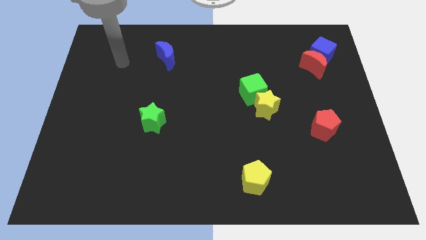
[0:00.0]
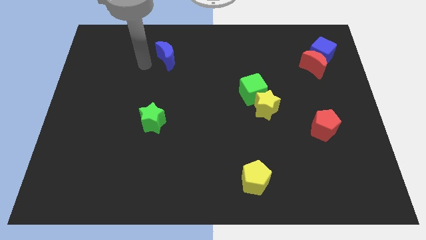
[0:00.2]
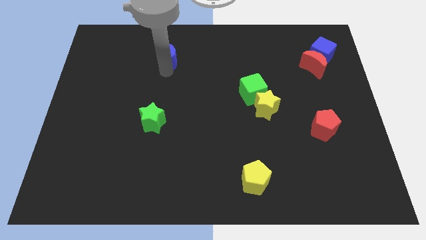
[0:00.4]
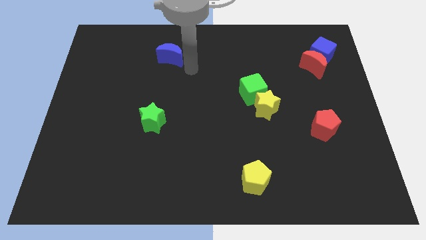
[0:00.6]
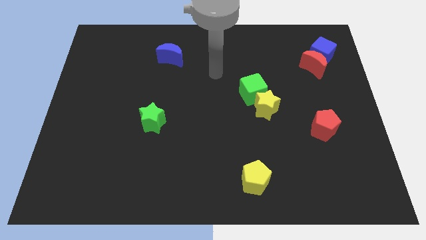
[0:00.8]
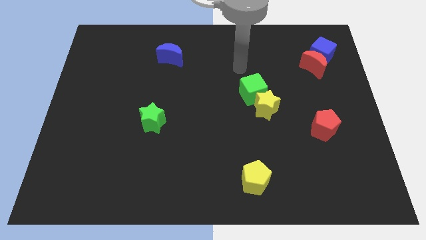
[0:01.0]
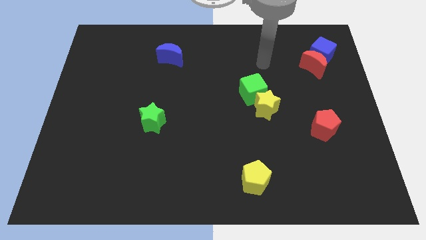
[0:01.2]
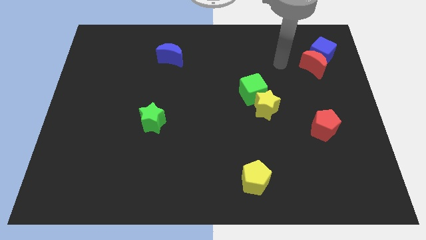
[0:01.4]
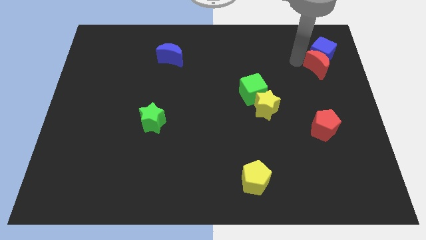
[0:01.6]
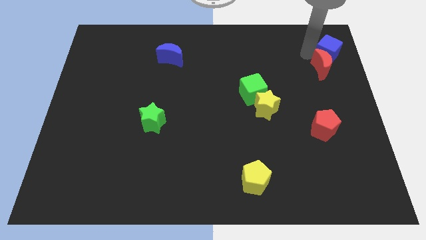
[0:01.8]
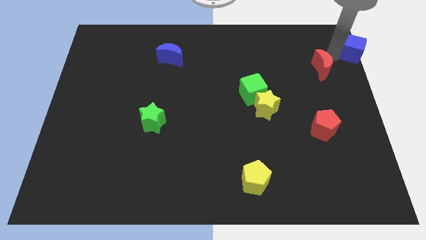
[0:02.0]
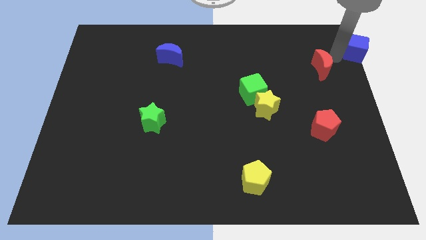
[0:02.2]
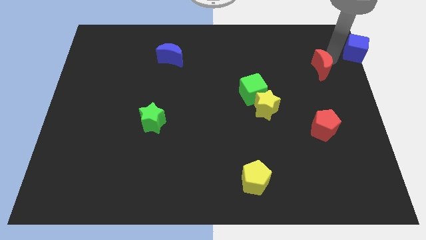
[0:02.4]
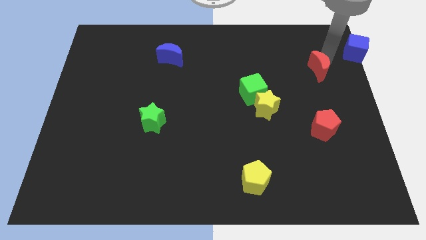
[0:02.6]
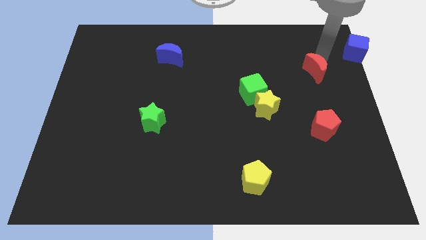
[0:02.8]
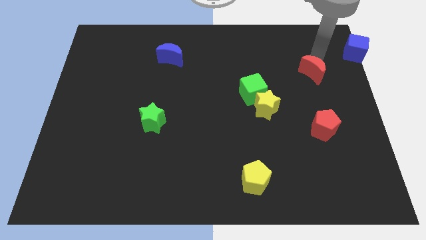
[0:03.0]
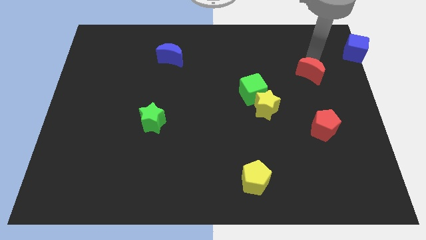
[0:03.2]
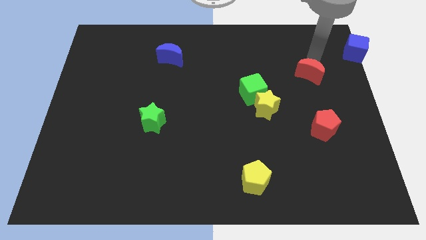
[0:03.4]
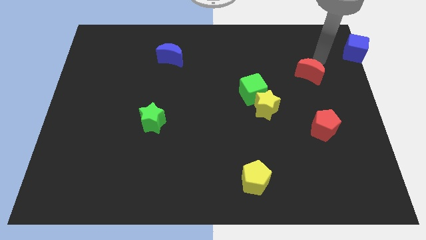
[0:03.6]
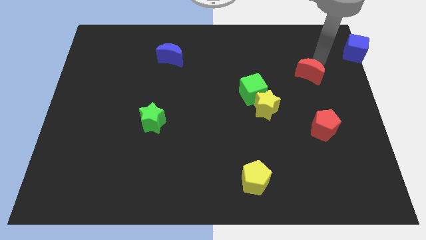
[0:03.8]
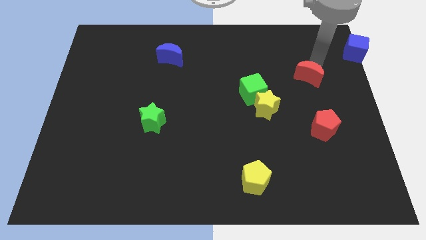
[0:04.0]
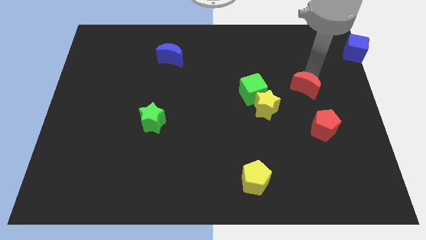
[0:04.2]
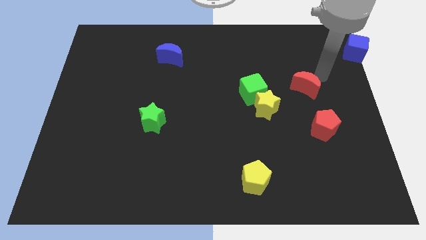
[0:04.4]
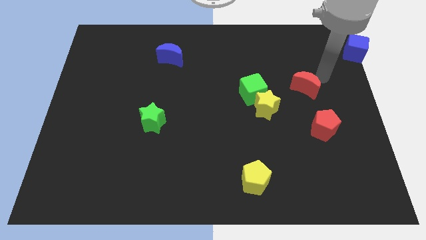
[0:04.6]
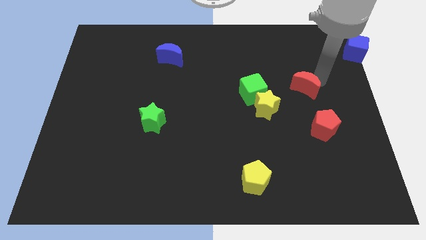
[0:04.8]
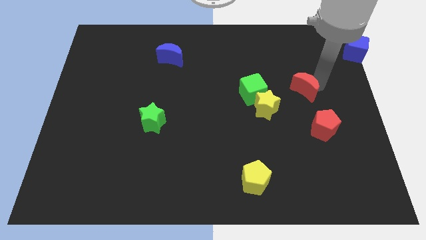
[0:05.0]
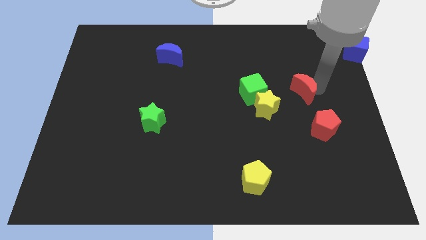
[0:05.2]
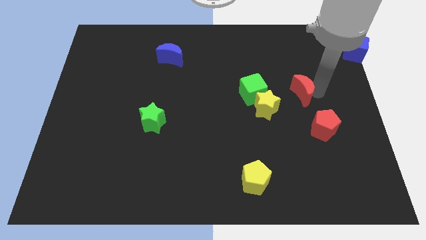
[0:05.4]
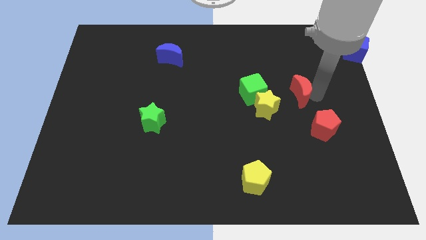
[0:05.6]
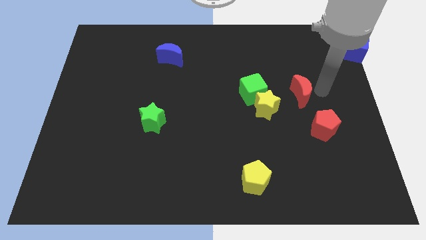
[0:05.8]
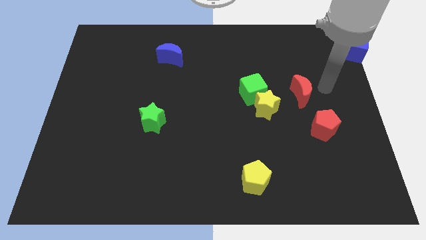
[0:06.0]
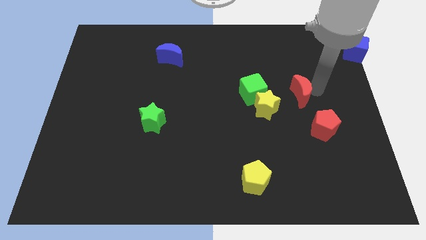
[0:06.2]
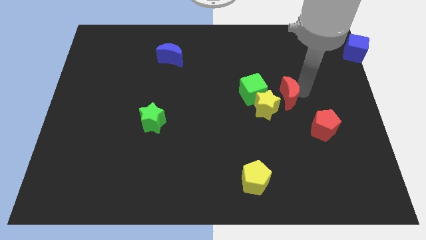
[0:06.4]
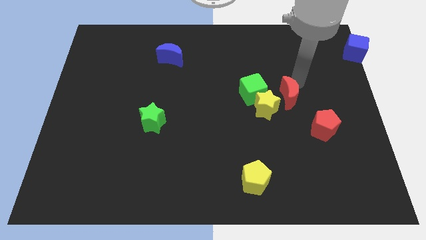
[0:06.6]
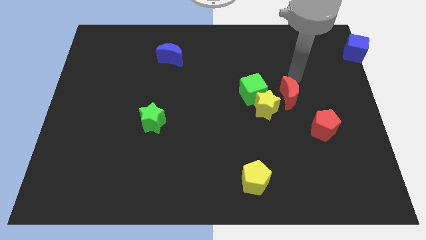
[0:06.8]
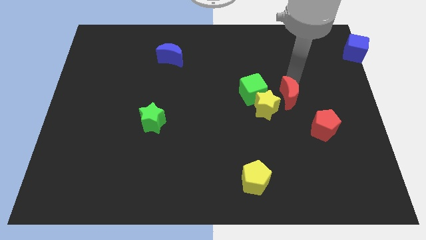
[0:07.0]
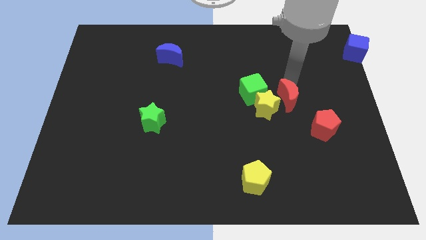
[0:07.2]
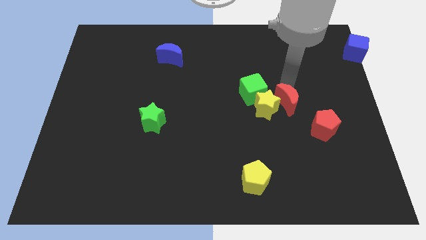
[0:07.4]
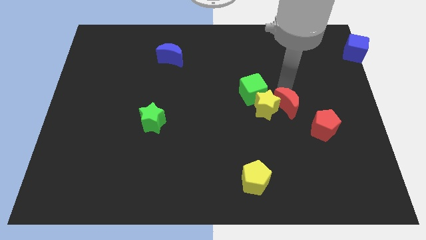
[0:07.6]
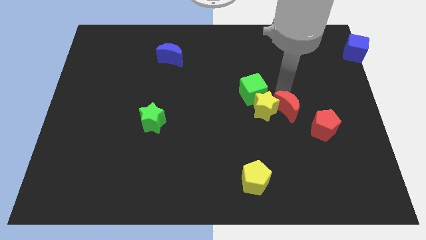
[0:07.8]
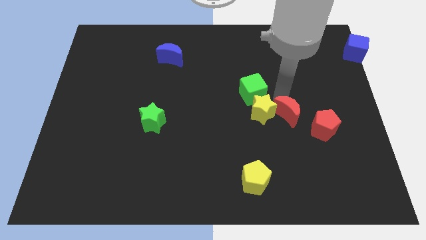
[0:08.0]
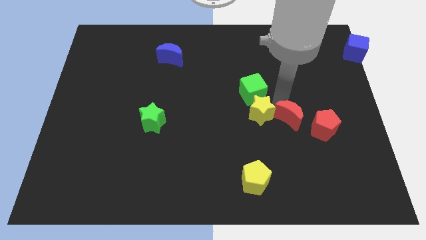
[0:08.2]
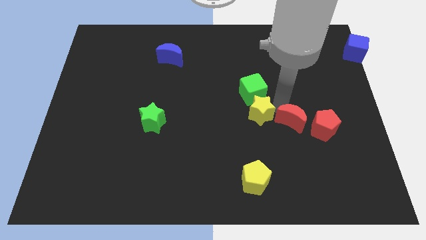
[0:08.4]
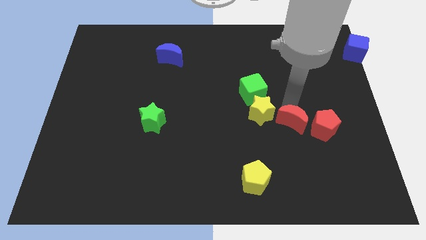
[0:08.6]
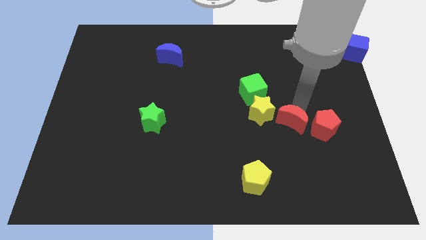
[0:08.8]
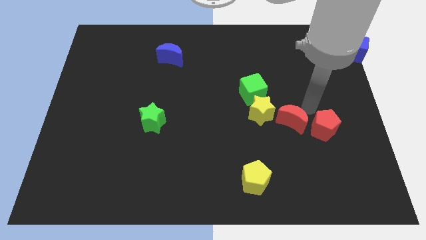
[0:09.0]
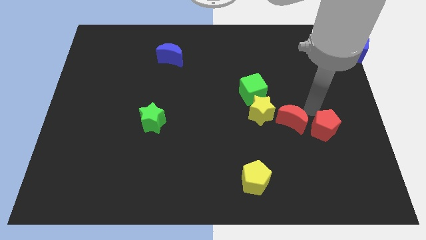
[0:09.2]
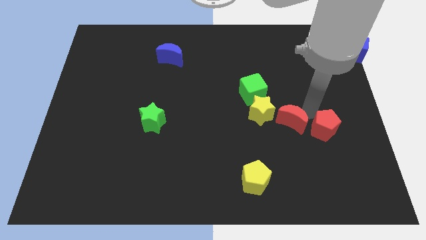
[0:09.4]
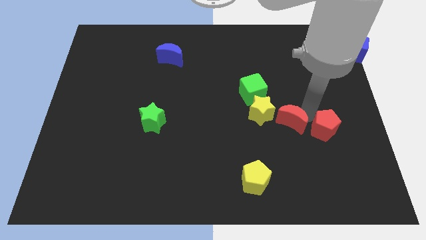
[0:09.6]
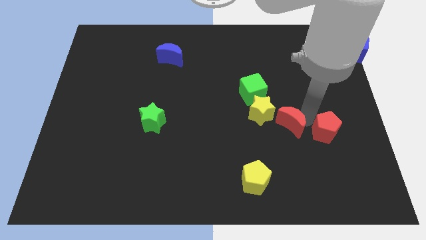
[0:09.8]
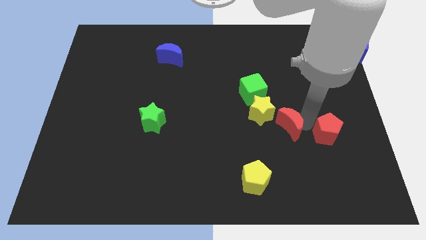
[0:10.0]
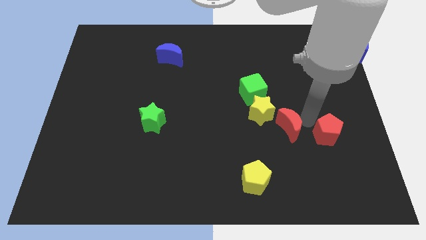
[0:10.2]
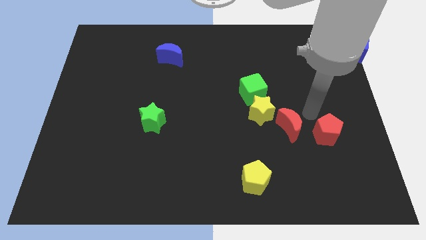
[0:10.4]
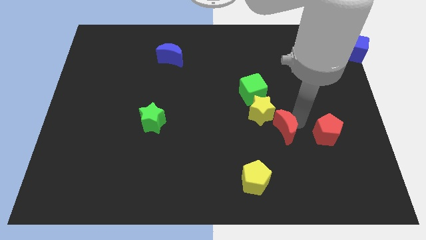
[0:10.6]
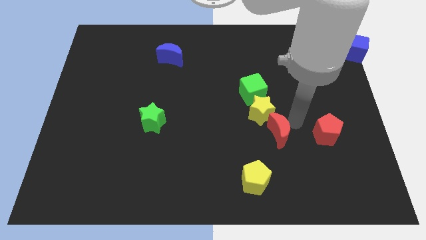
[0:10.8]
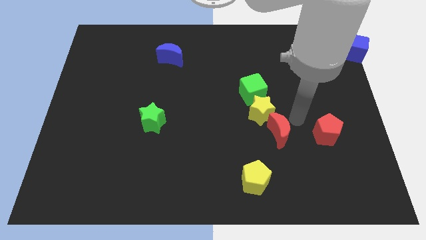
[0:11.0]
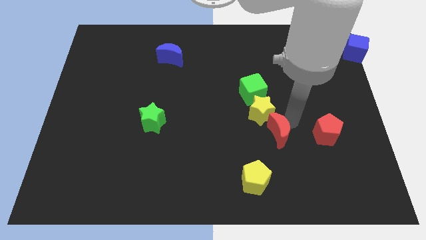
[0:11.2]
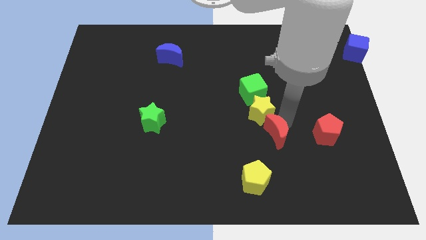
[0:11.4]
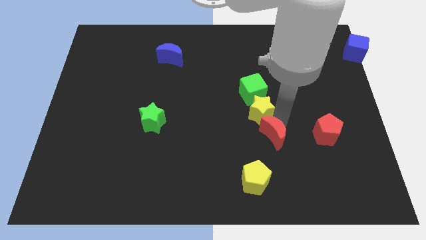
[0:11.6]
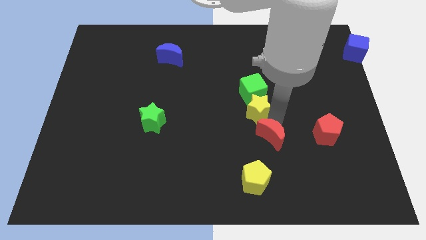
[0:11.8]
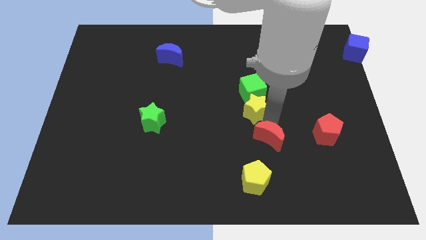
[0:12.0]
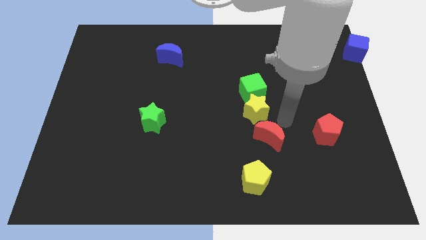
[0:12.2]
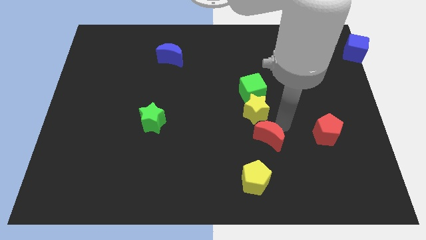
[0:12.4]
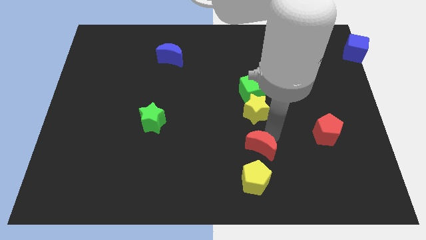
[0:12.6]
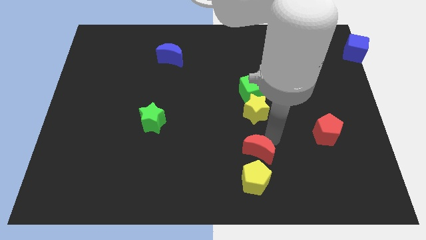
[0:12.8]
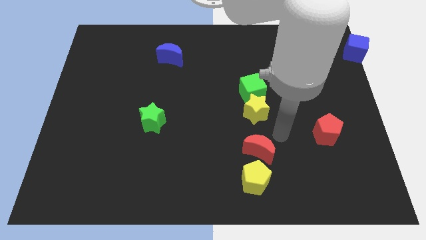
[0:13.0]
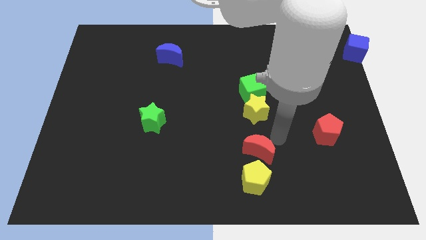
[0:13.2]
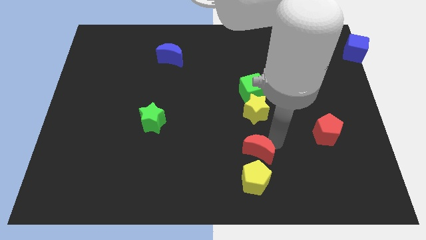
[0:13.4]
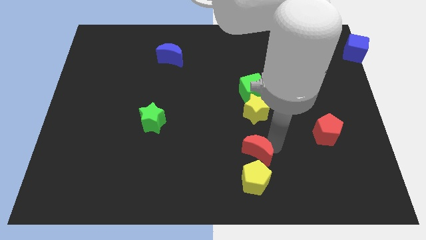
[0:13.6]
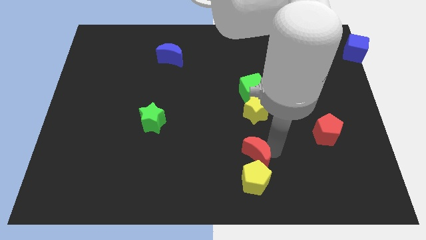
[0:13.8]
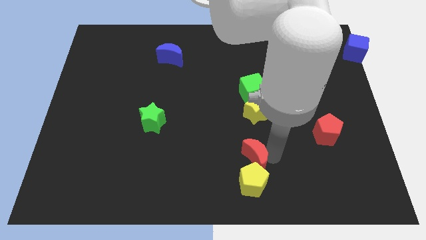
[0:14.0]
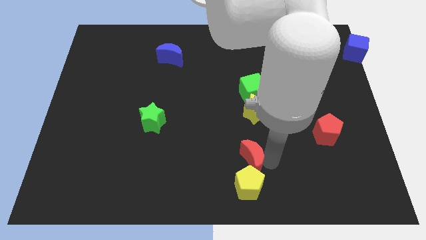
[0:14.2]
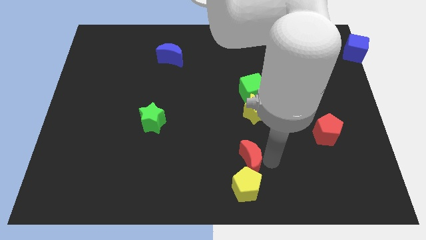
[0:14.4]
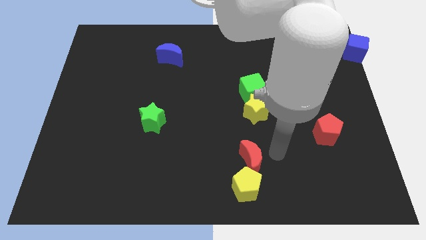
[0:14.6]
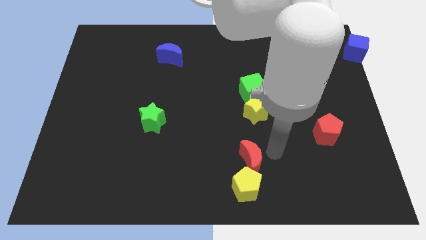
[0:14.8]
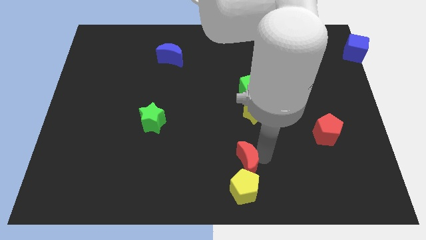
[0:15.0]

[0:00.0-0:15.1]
put the red moon to the bottom side
